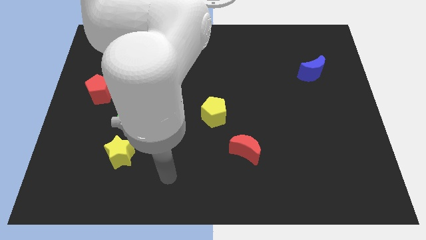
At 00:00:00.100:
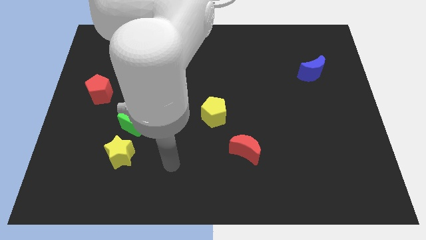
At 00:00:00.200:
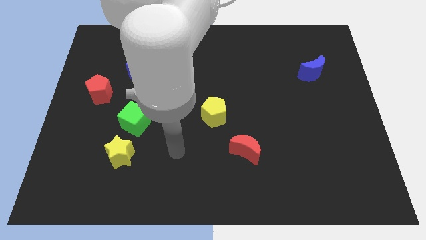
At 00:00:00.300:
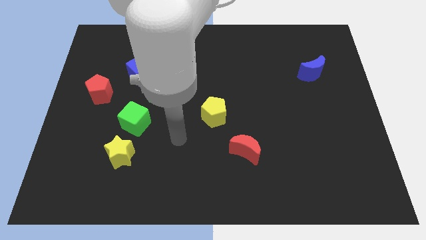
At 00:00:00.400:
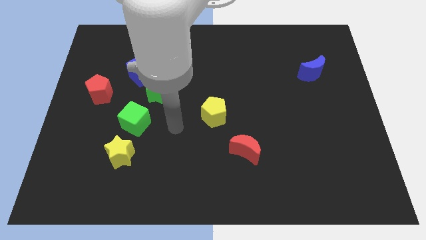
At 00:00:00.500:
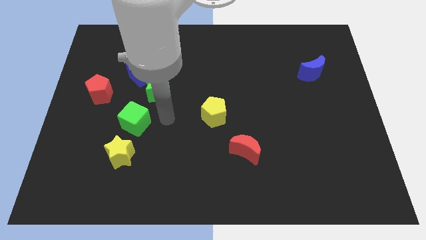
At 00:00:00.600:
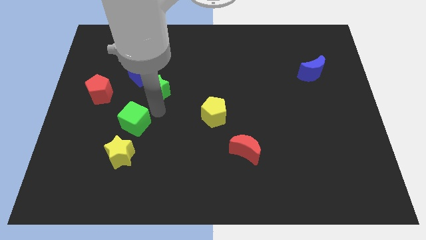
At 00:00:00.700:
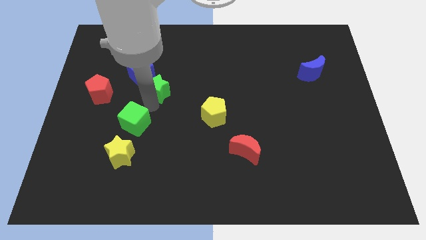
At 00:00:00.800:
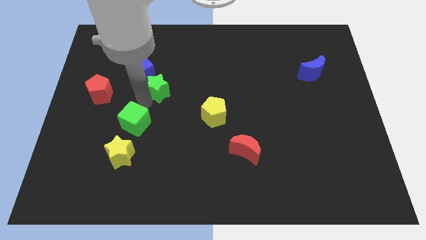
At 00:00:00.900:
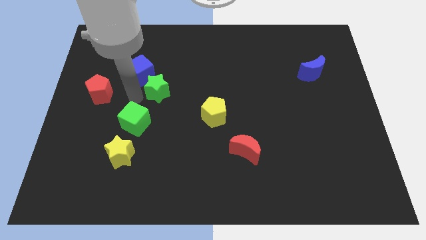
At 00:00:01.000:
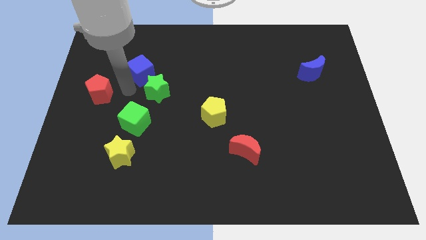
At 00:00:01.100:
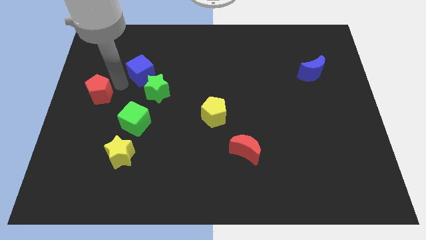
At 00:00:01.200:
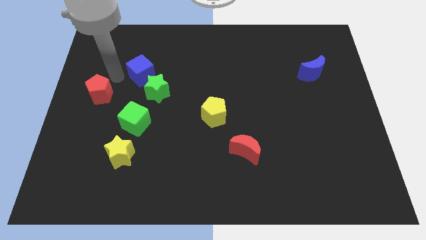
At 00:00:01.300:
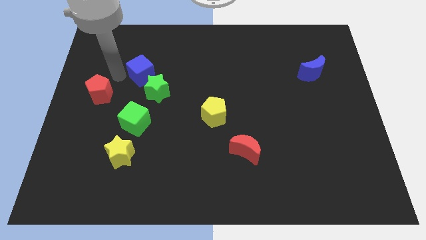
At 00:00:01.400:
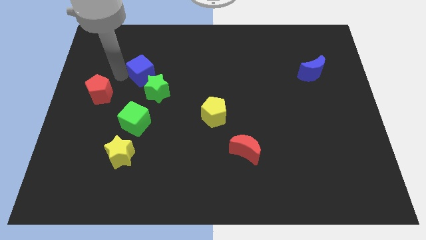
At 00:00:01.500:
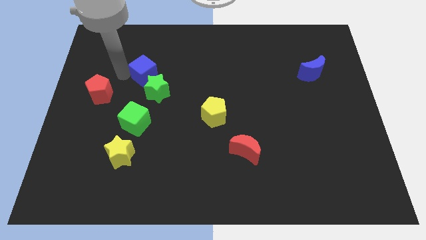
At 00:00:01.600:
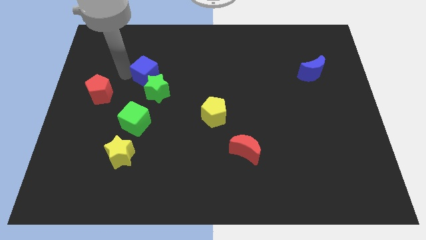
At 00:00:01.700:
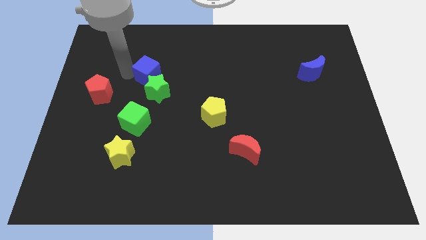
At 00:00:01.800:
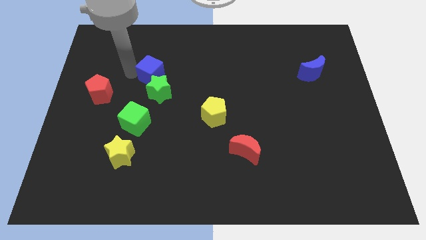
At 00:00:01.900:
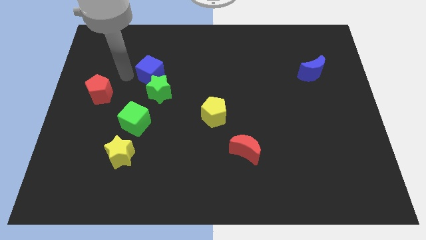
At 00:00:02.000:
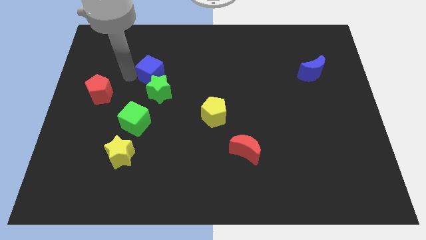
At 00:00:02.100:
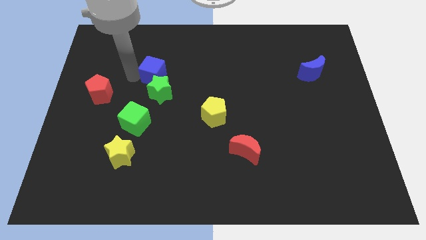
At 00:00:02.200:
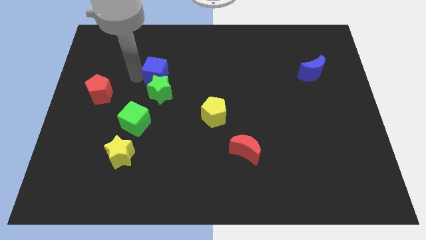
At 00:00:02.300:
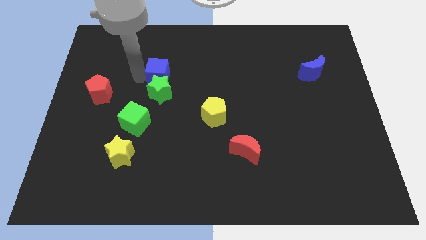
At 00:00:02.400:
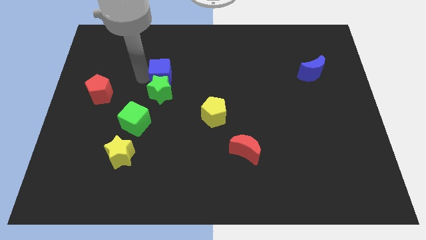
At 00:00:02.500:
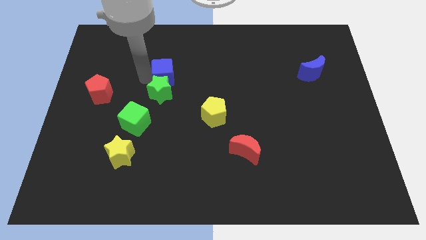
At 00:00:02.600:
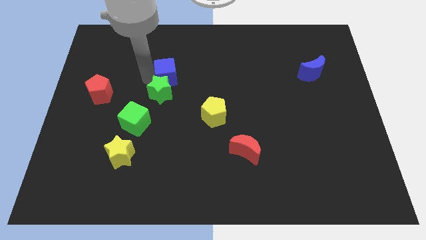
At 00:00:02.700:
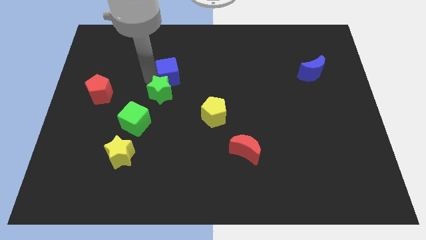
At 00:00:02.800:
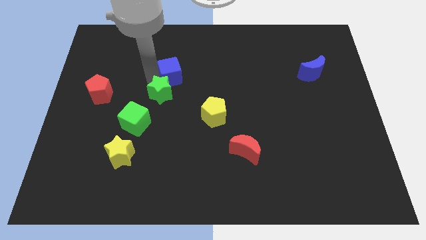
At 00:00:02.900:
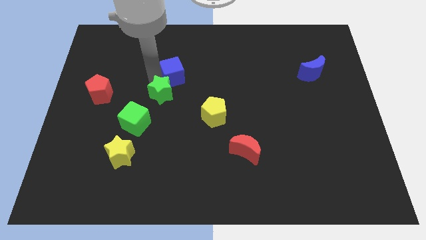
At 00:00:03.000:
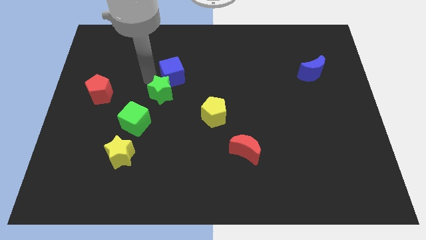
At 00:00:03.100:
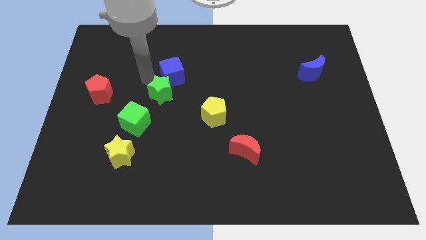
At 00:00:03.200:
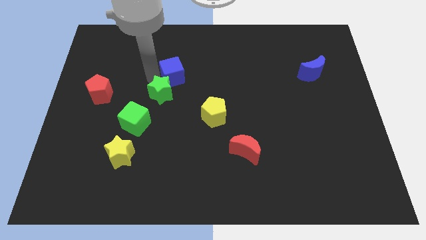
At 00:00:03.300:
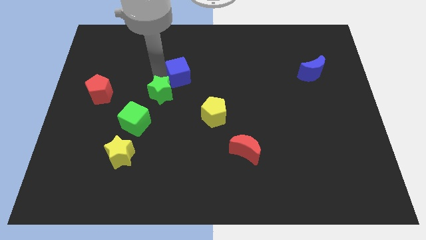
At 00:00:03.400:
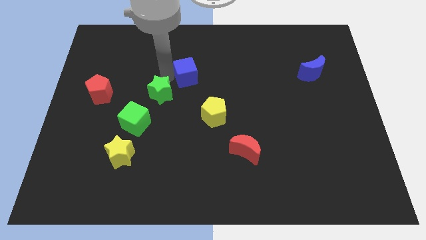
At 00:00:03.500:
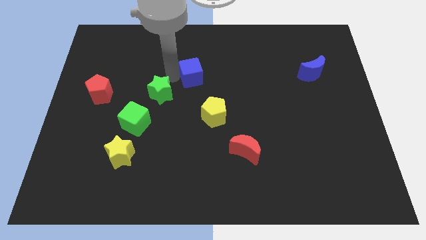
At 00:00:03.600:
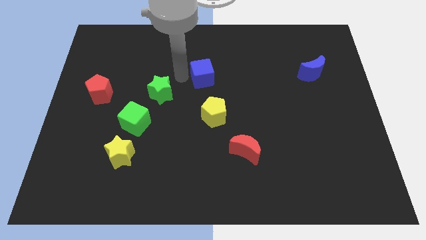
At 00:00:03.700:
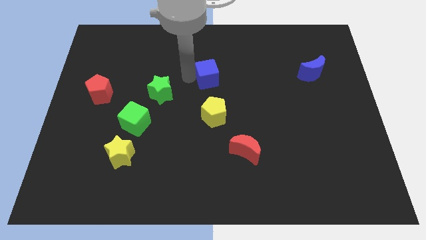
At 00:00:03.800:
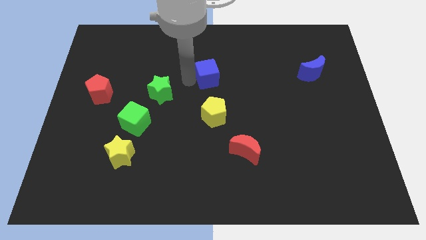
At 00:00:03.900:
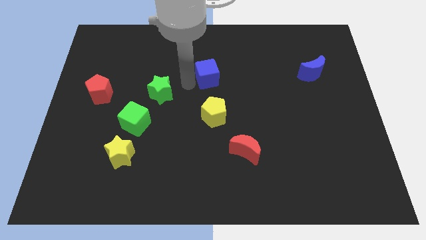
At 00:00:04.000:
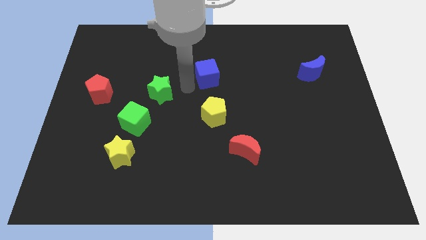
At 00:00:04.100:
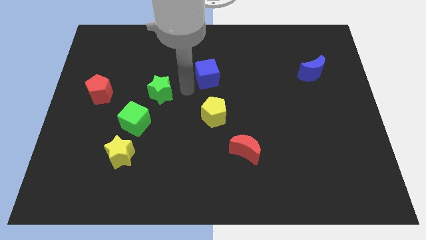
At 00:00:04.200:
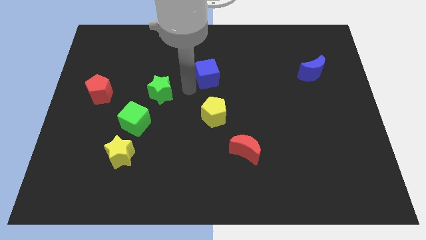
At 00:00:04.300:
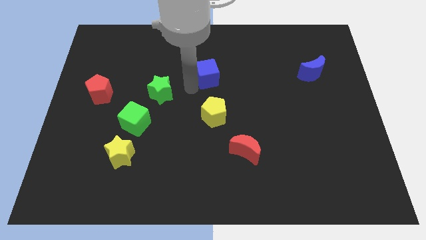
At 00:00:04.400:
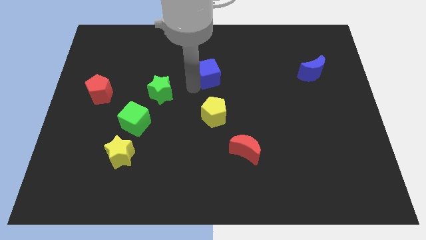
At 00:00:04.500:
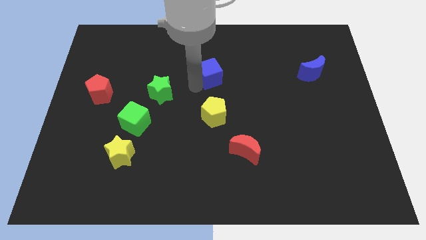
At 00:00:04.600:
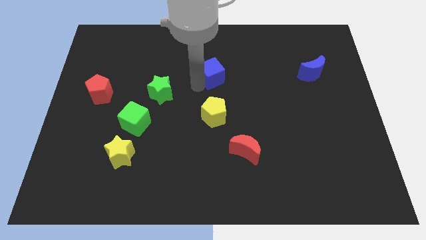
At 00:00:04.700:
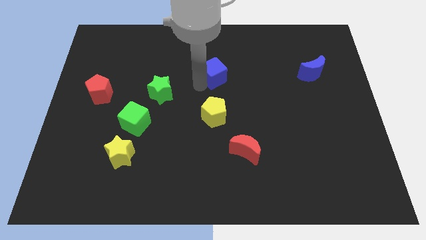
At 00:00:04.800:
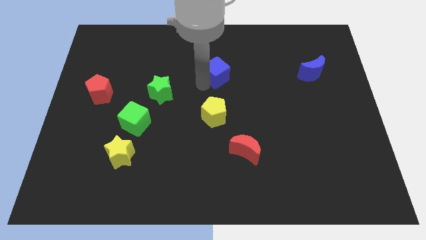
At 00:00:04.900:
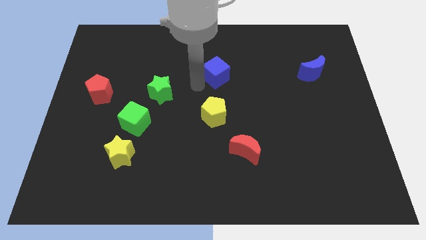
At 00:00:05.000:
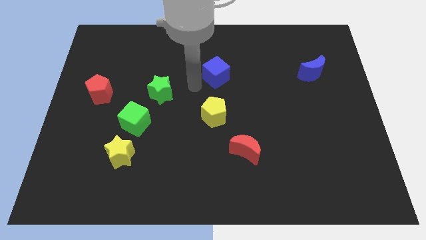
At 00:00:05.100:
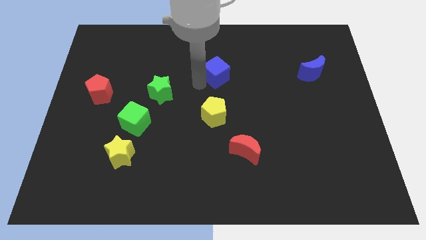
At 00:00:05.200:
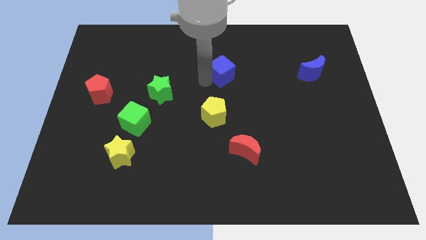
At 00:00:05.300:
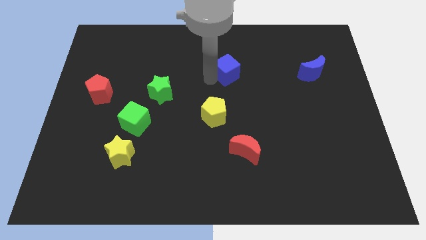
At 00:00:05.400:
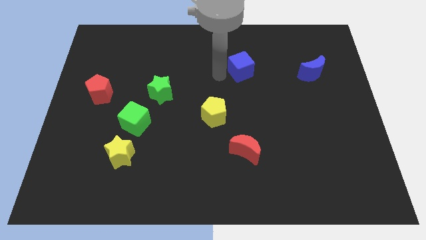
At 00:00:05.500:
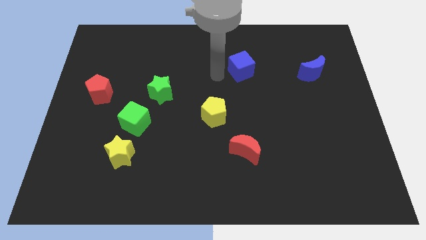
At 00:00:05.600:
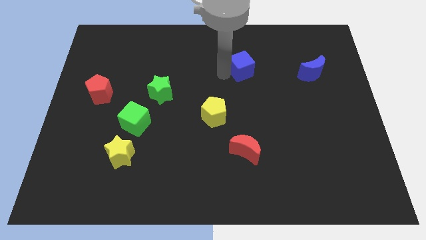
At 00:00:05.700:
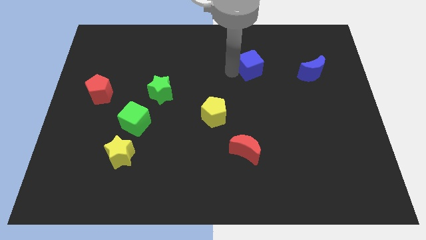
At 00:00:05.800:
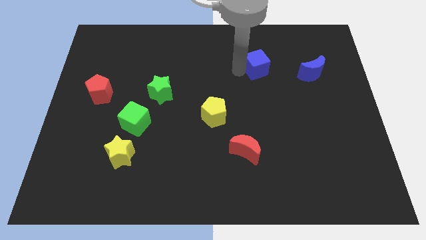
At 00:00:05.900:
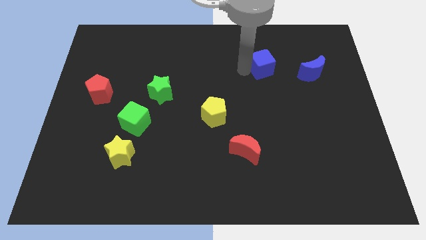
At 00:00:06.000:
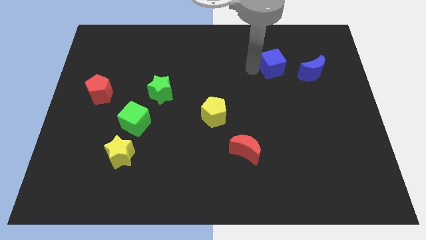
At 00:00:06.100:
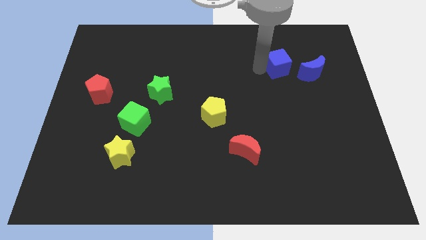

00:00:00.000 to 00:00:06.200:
slide the blue cube to the top left of the blue moon

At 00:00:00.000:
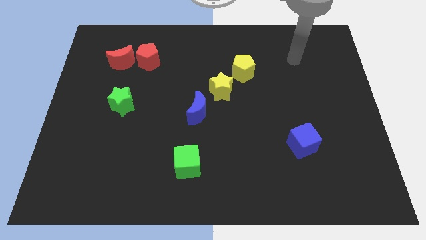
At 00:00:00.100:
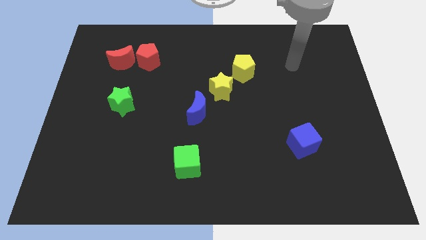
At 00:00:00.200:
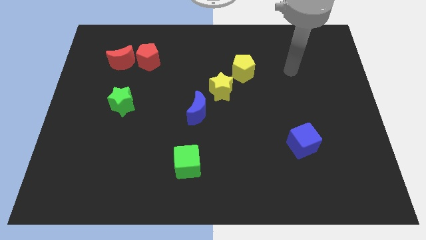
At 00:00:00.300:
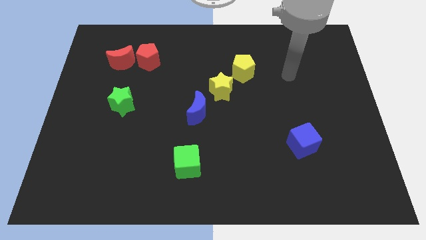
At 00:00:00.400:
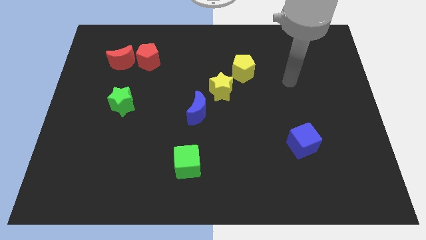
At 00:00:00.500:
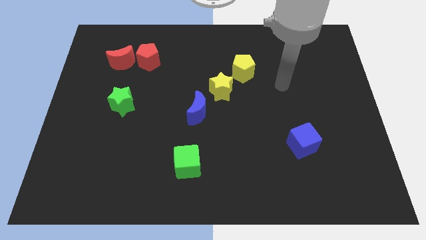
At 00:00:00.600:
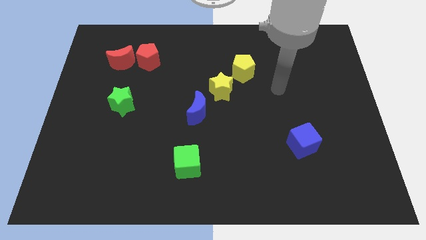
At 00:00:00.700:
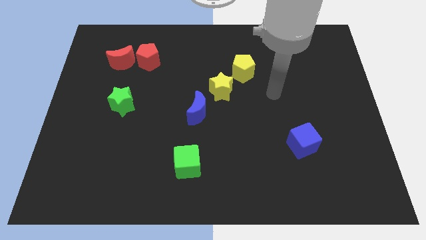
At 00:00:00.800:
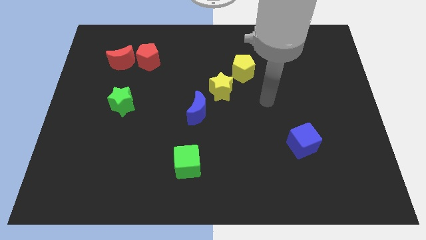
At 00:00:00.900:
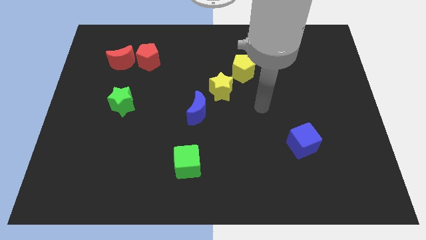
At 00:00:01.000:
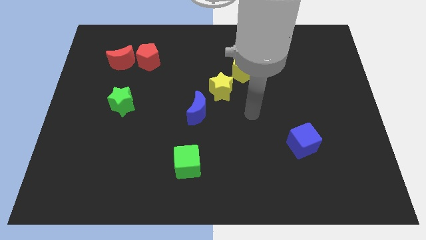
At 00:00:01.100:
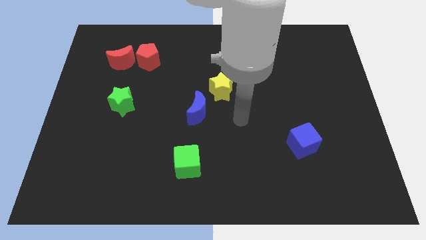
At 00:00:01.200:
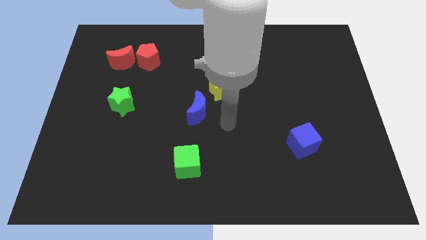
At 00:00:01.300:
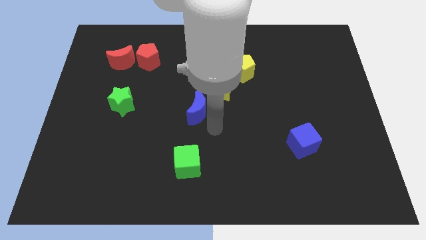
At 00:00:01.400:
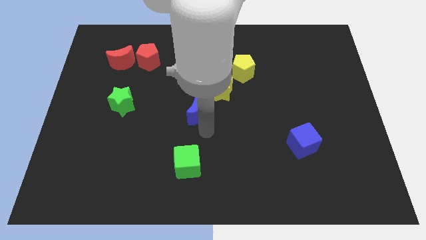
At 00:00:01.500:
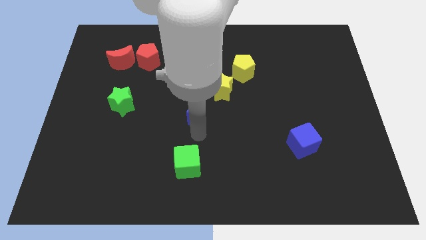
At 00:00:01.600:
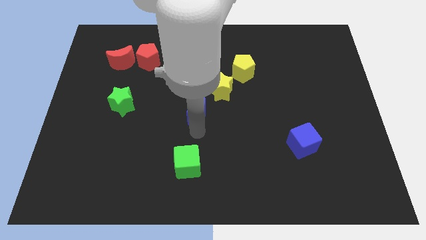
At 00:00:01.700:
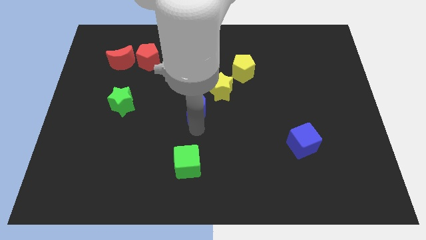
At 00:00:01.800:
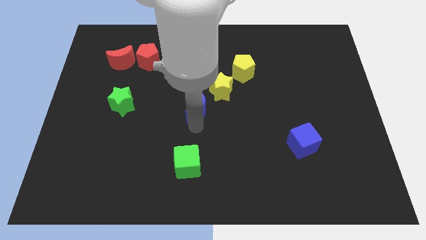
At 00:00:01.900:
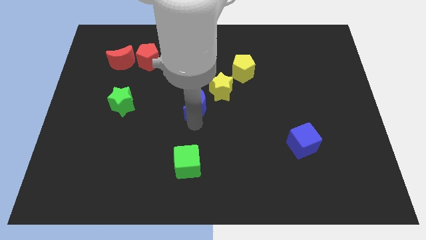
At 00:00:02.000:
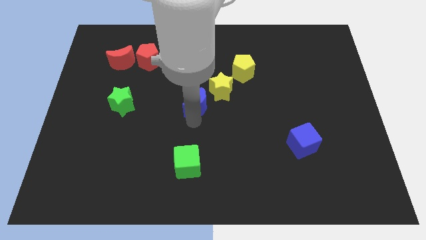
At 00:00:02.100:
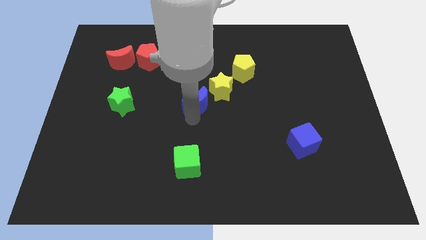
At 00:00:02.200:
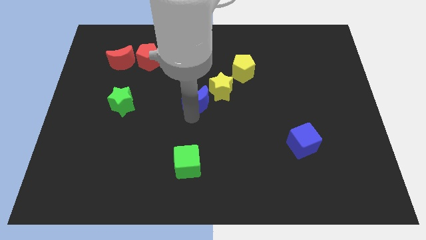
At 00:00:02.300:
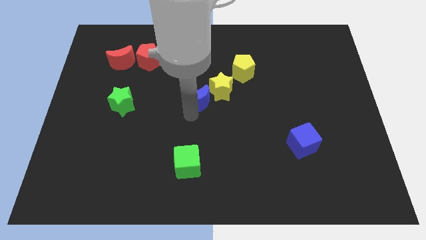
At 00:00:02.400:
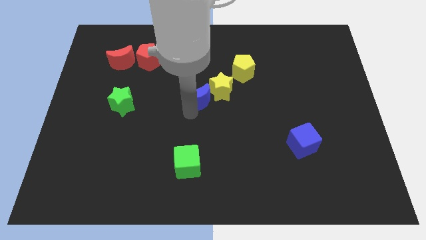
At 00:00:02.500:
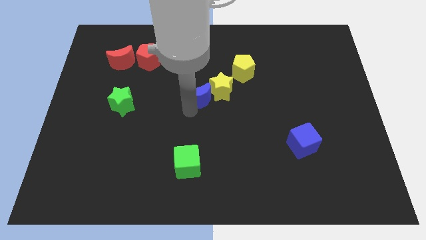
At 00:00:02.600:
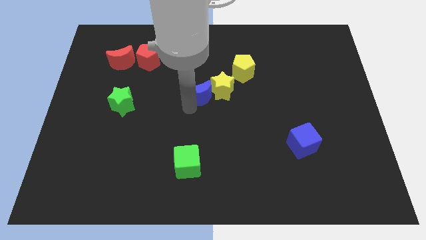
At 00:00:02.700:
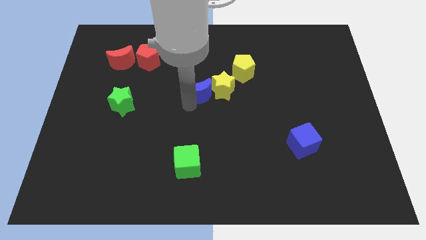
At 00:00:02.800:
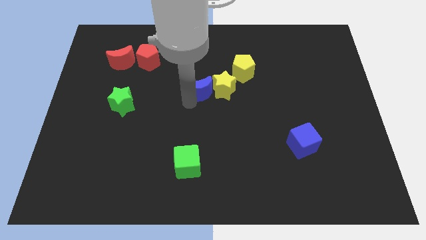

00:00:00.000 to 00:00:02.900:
push the blue moon to the top left side of the yellow star
